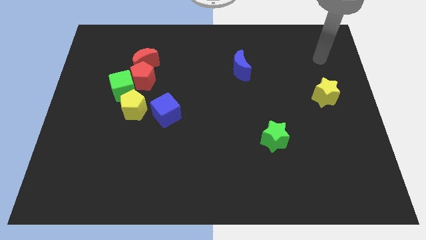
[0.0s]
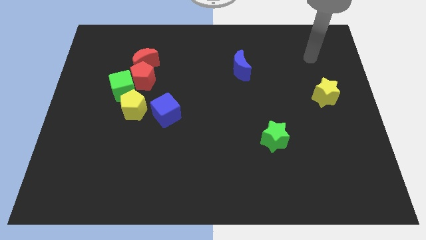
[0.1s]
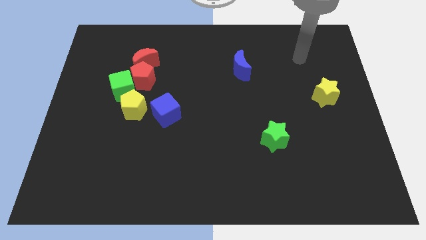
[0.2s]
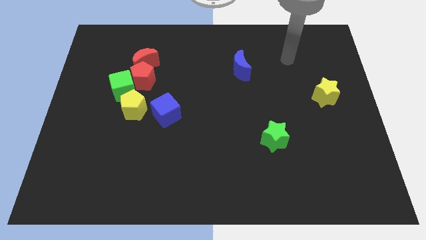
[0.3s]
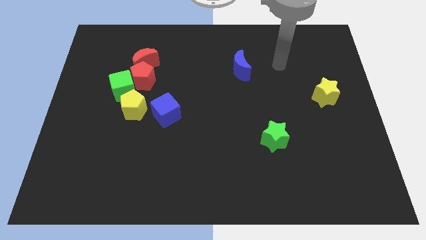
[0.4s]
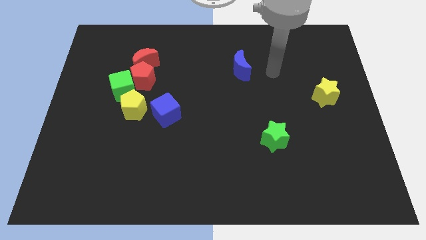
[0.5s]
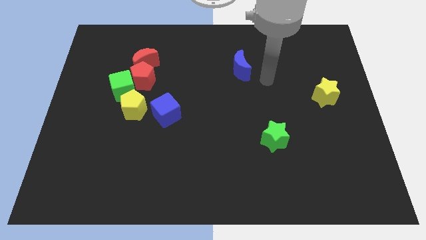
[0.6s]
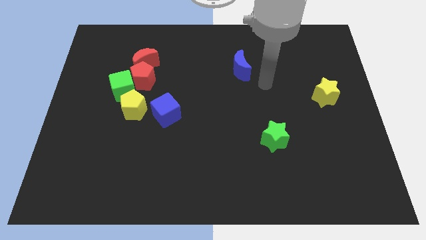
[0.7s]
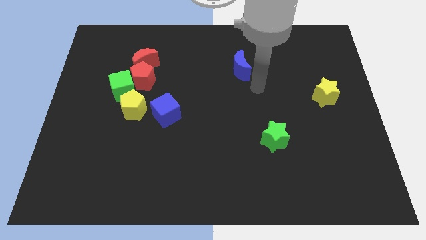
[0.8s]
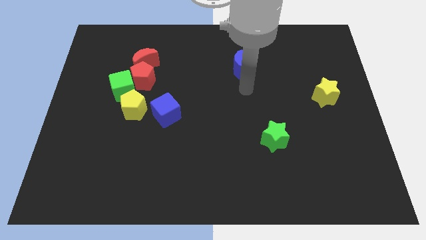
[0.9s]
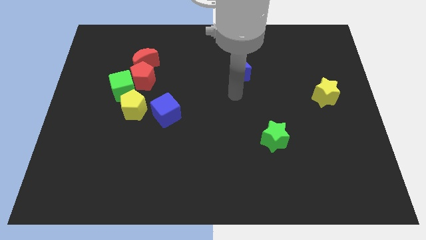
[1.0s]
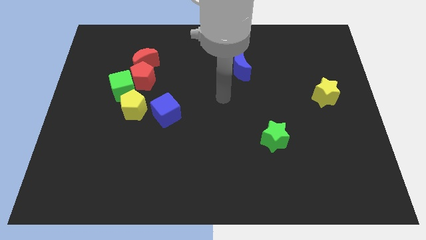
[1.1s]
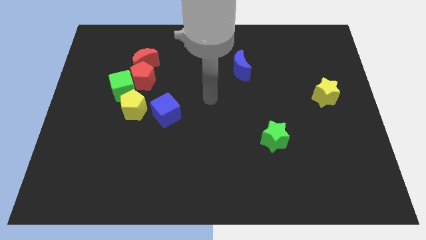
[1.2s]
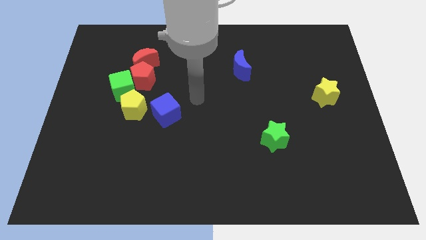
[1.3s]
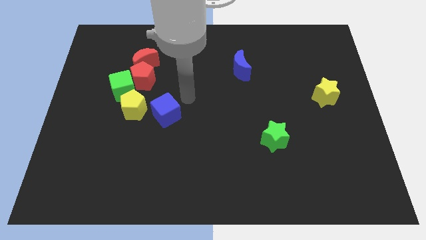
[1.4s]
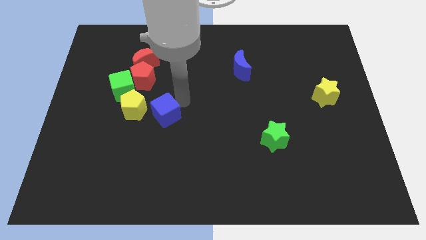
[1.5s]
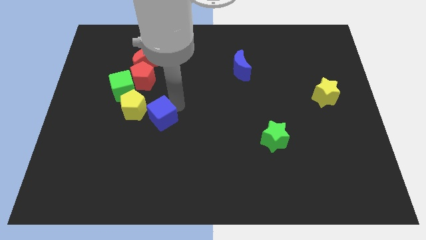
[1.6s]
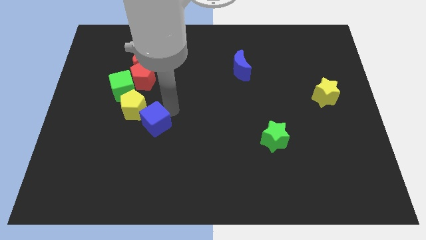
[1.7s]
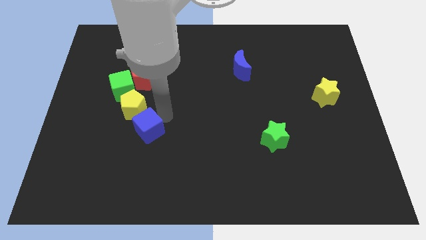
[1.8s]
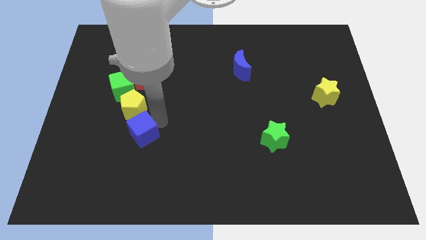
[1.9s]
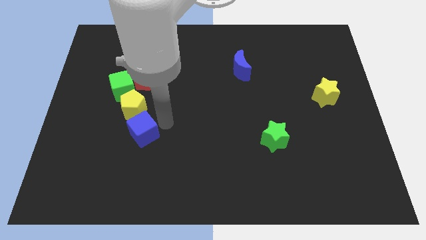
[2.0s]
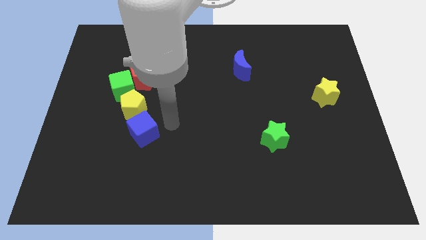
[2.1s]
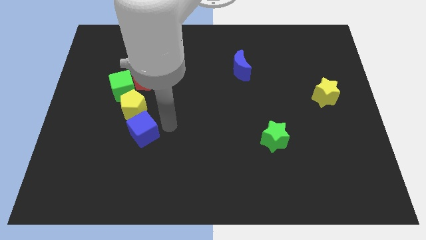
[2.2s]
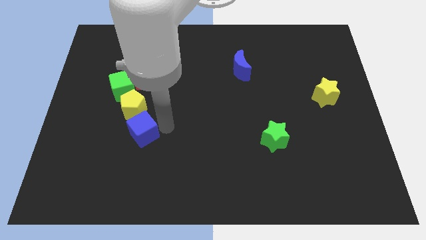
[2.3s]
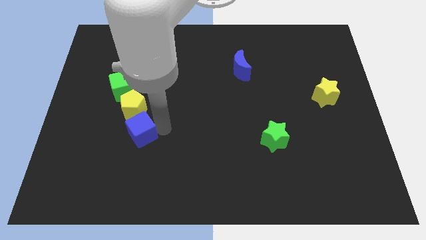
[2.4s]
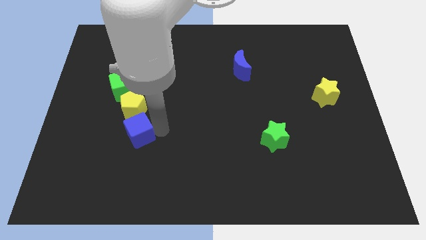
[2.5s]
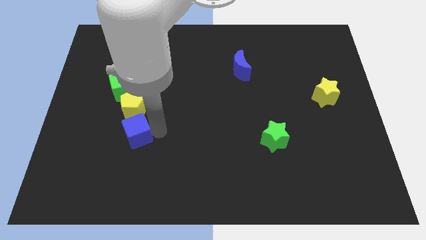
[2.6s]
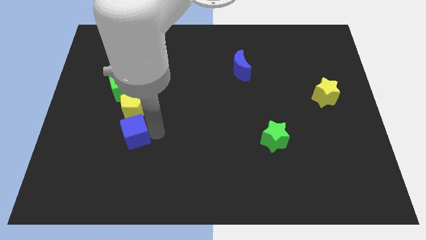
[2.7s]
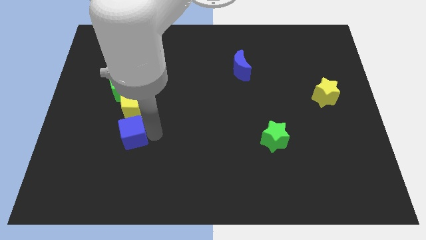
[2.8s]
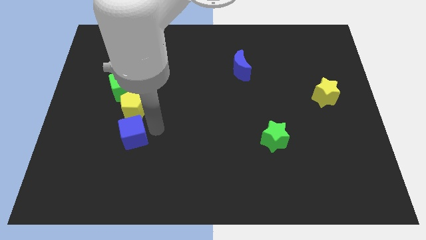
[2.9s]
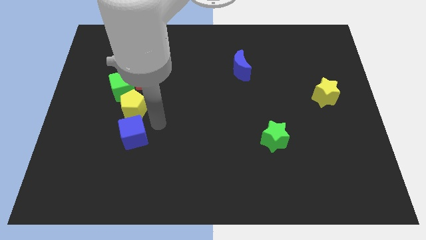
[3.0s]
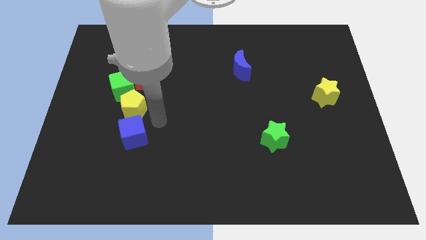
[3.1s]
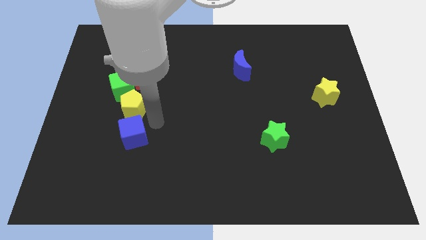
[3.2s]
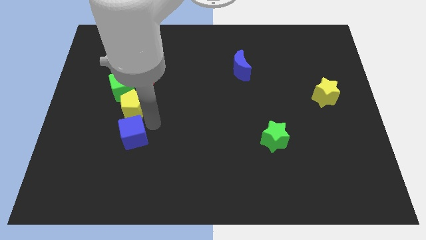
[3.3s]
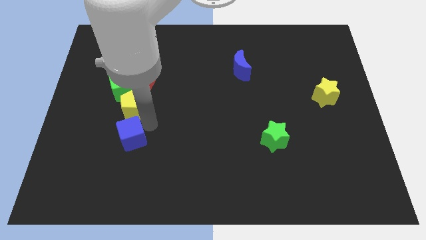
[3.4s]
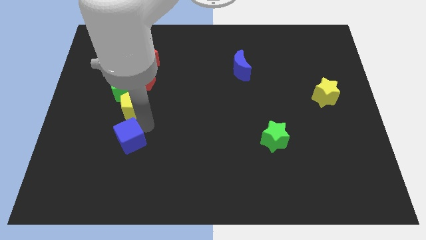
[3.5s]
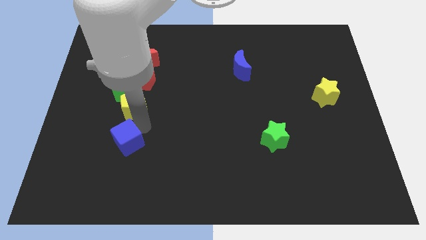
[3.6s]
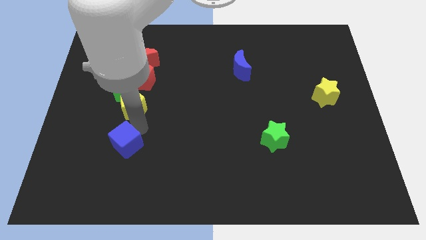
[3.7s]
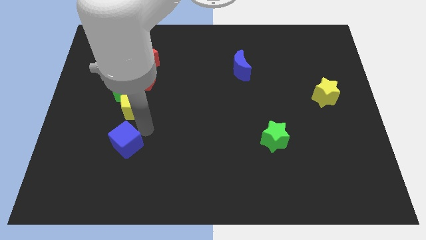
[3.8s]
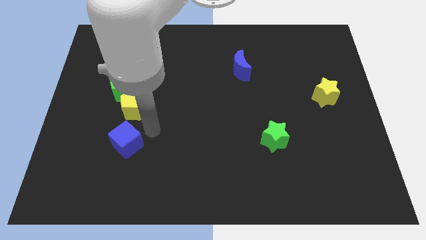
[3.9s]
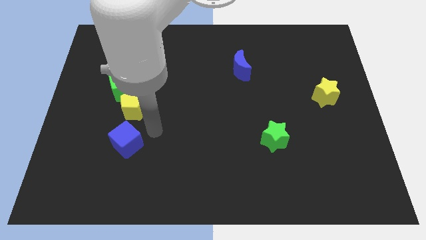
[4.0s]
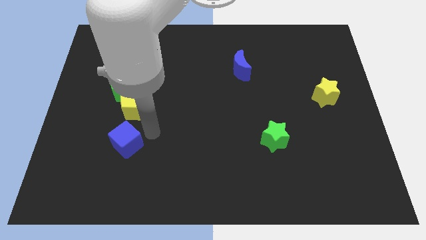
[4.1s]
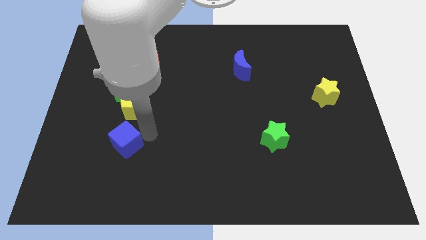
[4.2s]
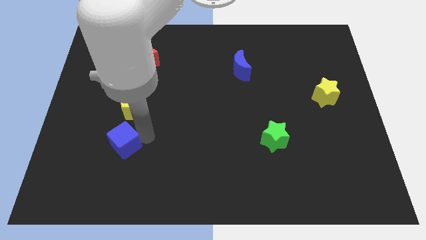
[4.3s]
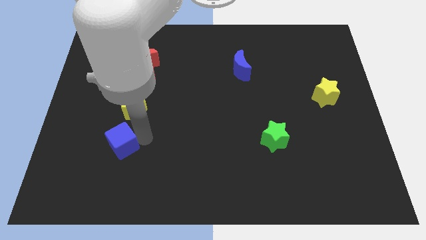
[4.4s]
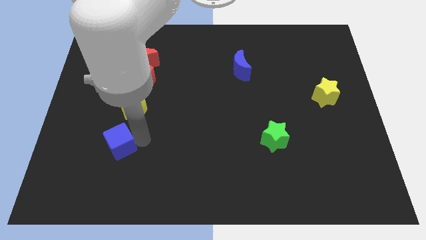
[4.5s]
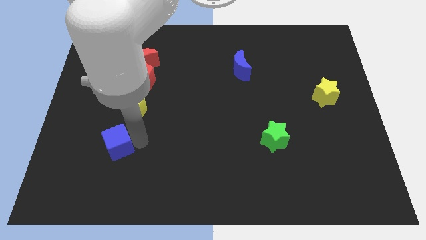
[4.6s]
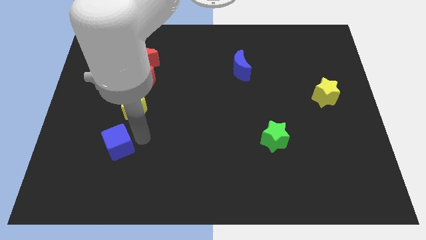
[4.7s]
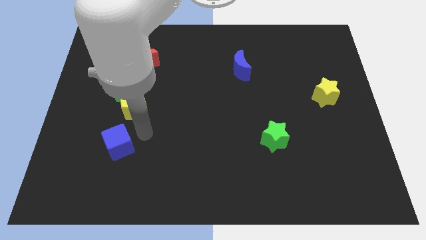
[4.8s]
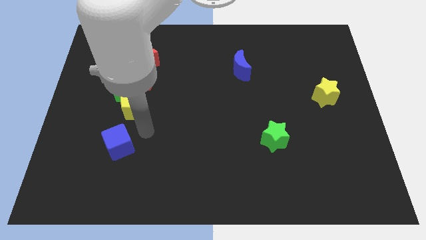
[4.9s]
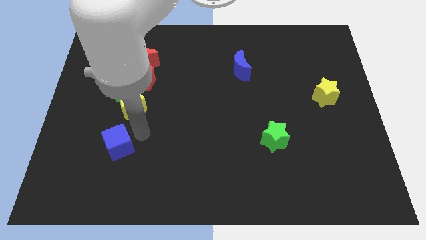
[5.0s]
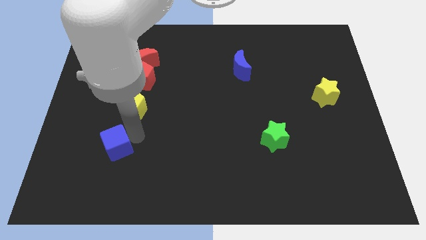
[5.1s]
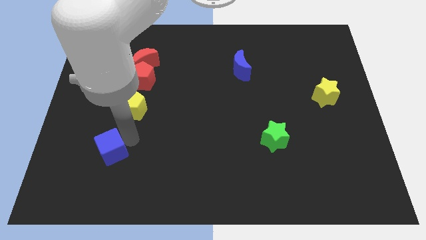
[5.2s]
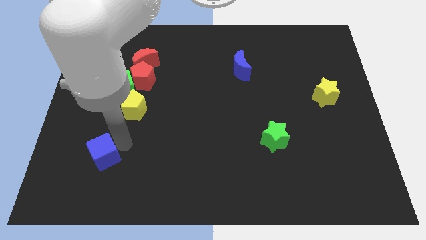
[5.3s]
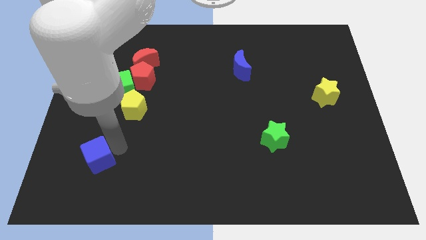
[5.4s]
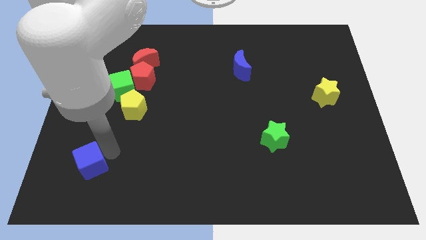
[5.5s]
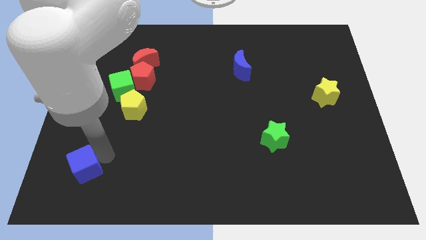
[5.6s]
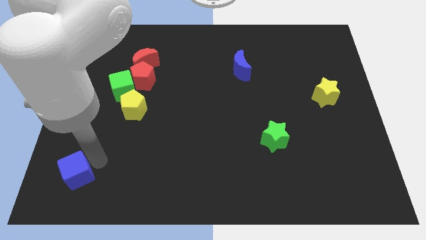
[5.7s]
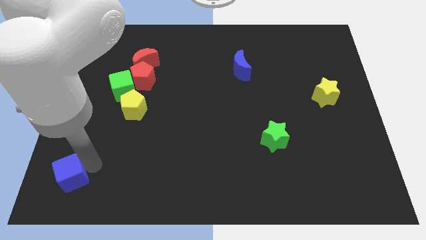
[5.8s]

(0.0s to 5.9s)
push the blue cube to the bottom left

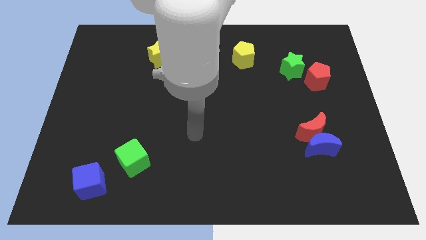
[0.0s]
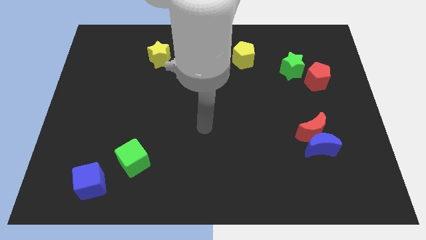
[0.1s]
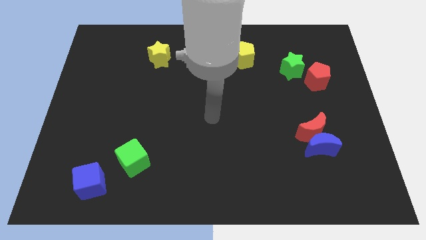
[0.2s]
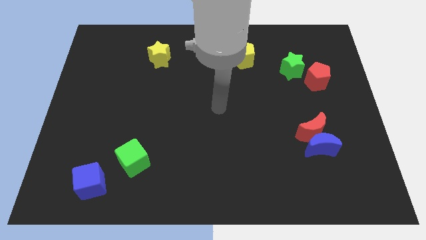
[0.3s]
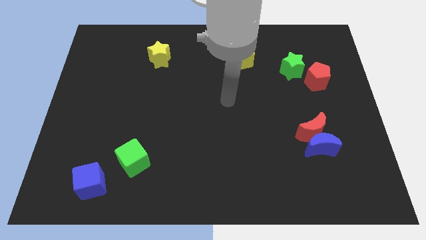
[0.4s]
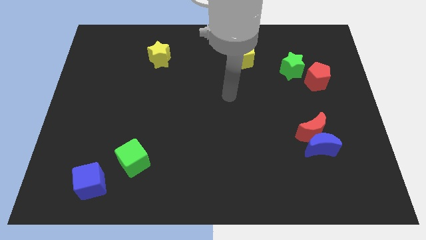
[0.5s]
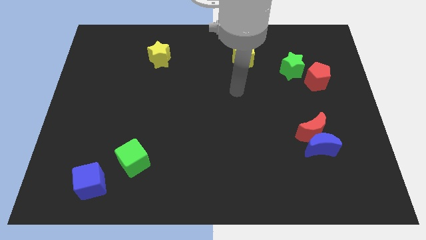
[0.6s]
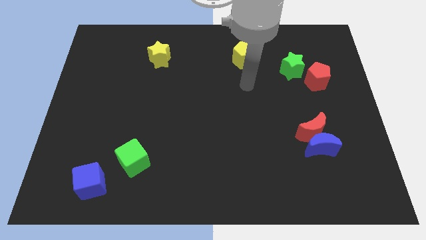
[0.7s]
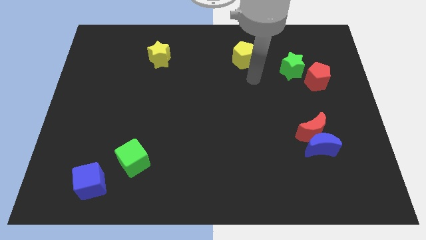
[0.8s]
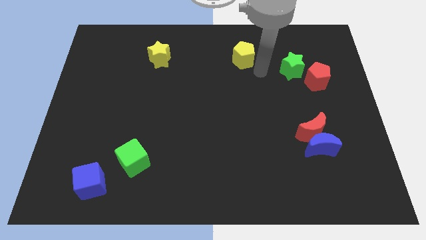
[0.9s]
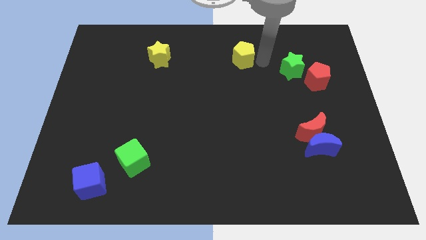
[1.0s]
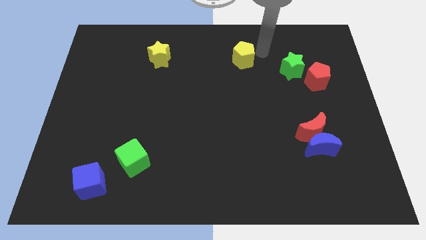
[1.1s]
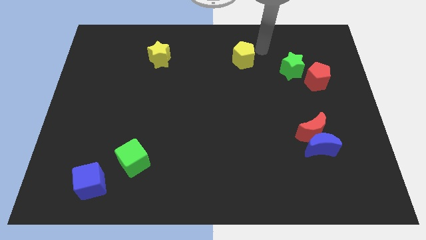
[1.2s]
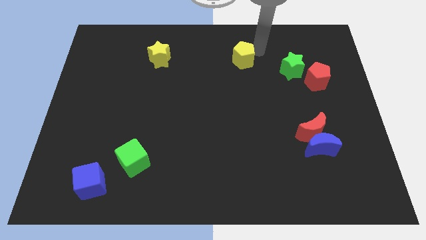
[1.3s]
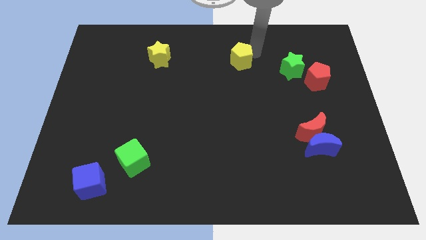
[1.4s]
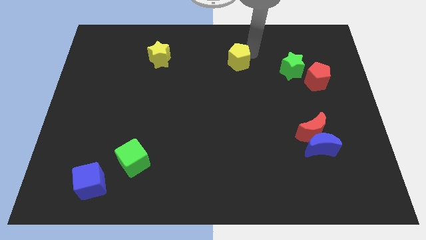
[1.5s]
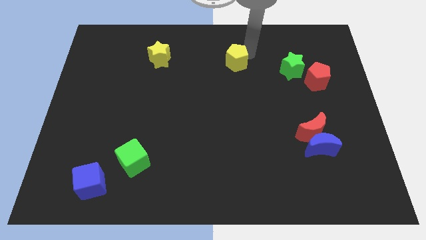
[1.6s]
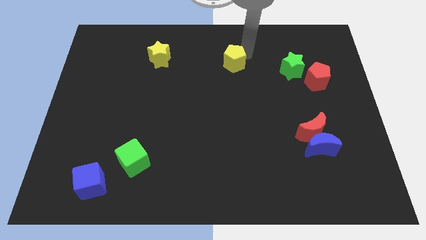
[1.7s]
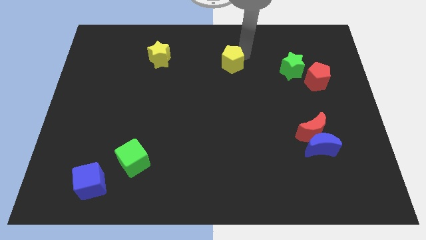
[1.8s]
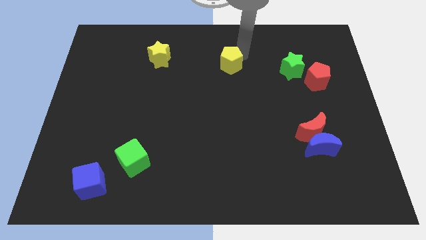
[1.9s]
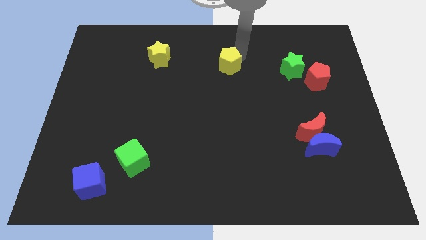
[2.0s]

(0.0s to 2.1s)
slide the yellow pentagon to the middle of the board
